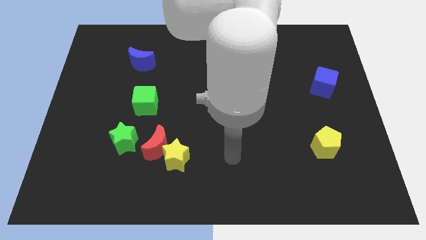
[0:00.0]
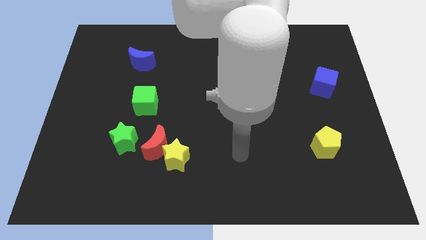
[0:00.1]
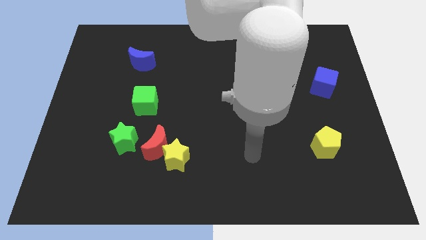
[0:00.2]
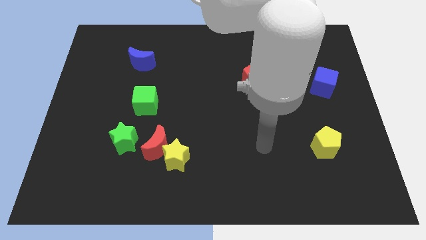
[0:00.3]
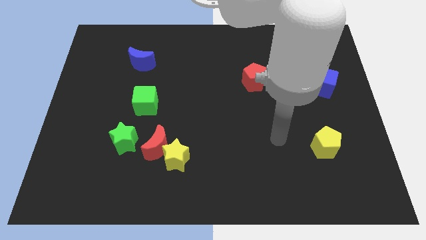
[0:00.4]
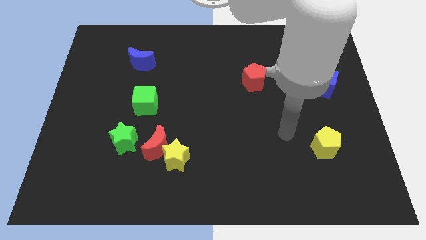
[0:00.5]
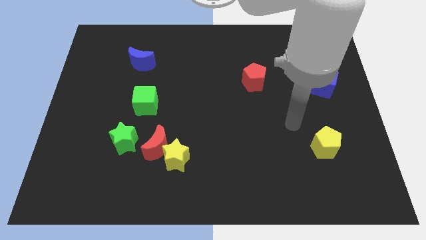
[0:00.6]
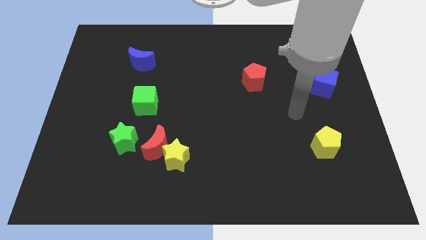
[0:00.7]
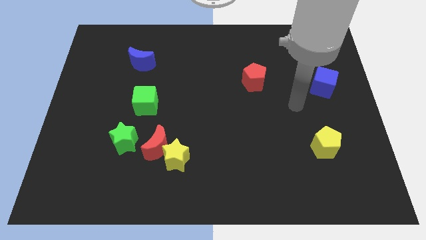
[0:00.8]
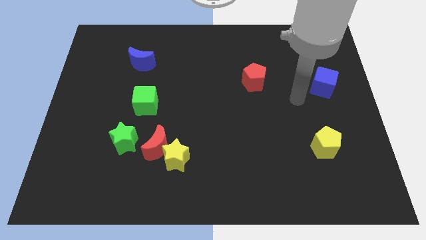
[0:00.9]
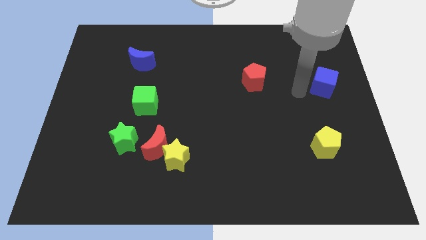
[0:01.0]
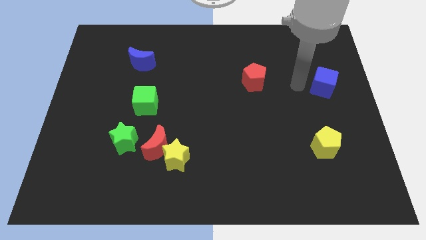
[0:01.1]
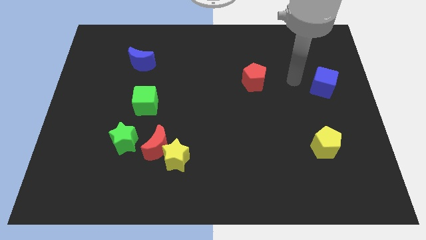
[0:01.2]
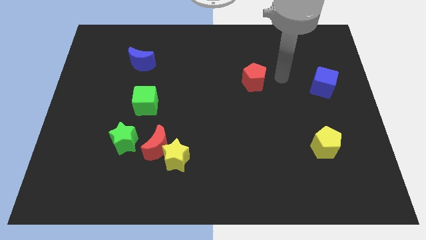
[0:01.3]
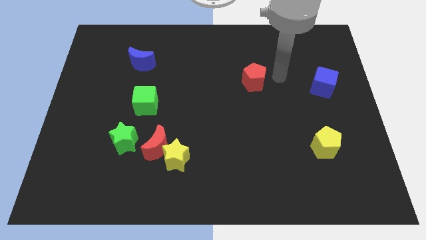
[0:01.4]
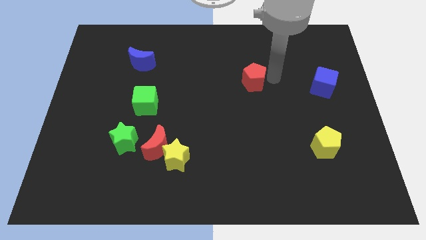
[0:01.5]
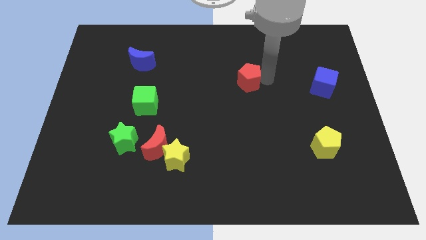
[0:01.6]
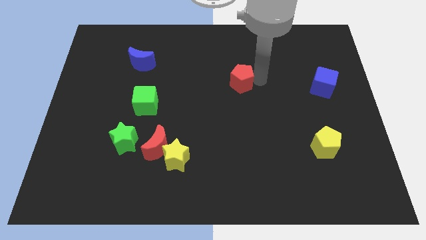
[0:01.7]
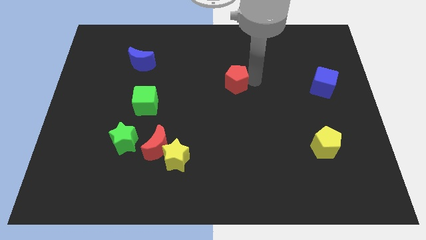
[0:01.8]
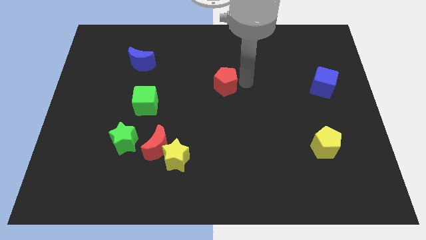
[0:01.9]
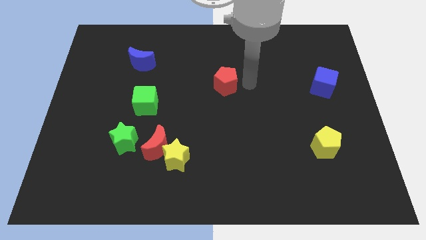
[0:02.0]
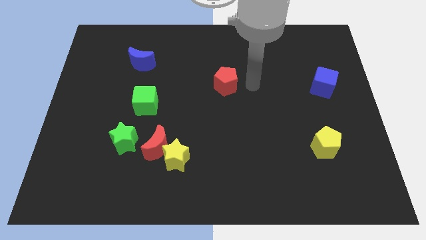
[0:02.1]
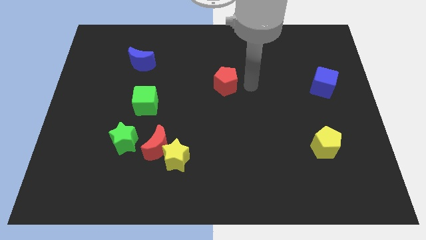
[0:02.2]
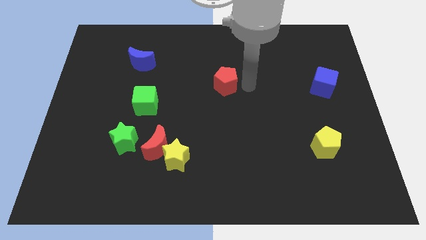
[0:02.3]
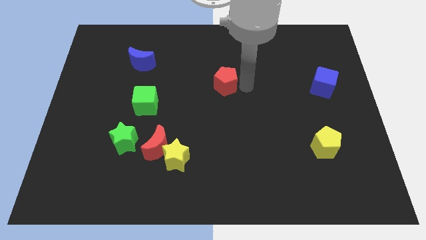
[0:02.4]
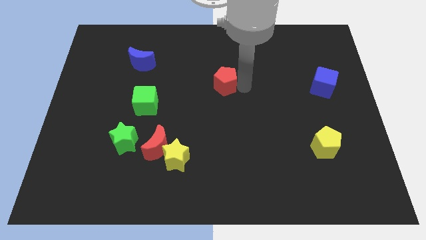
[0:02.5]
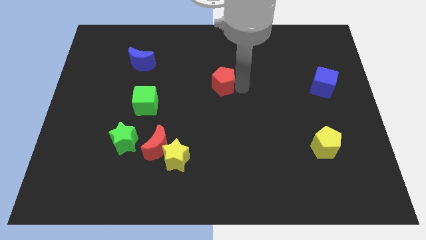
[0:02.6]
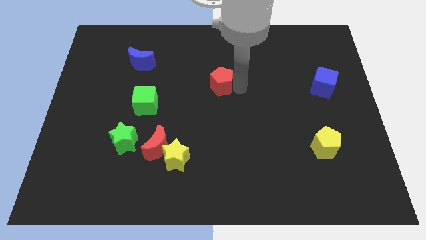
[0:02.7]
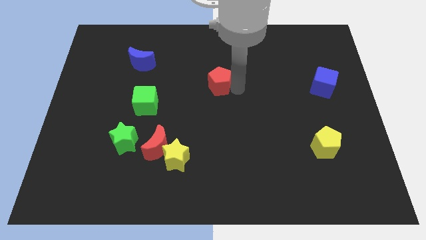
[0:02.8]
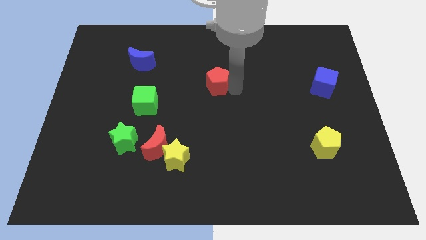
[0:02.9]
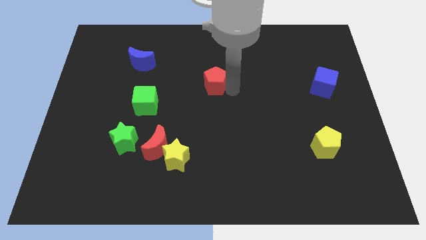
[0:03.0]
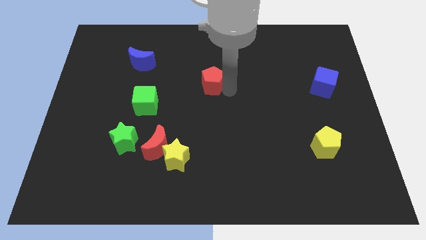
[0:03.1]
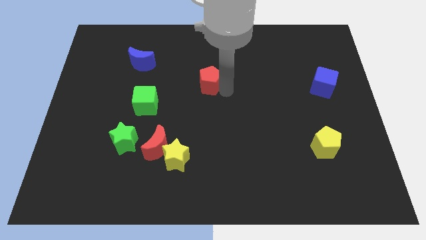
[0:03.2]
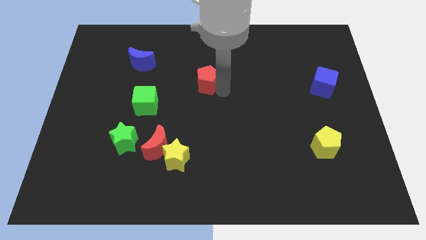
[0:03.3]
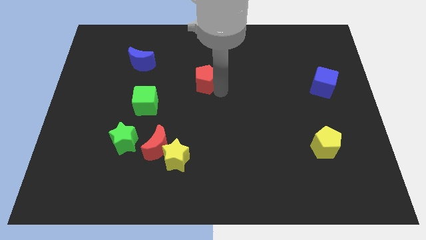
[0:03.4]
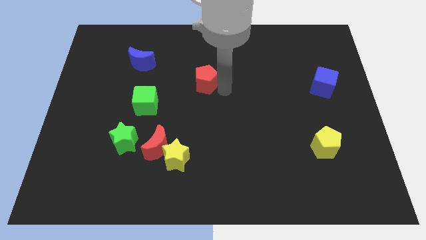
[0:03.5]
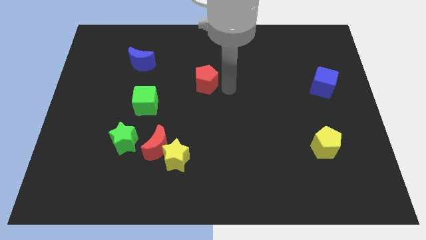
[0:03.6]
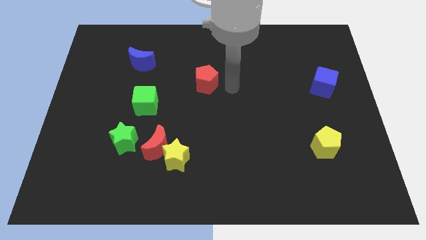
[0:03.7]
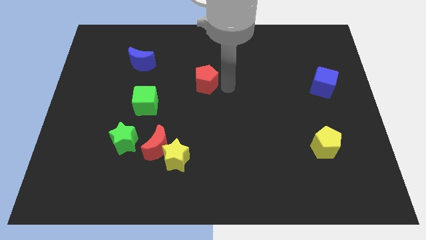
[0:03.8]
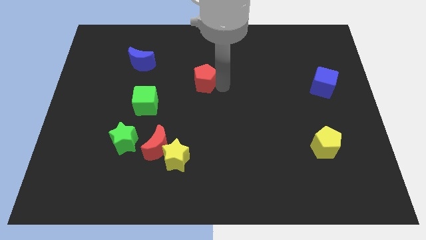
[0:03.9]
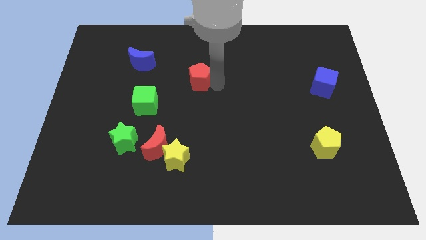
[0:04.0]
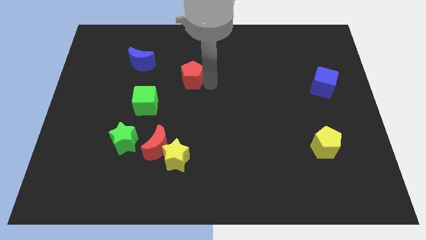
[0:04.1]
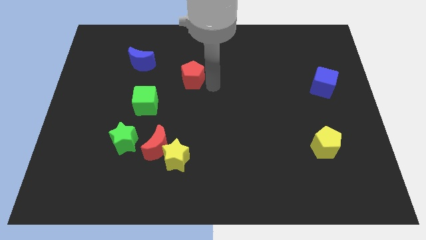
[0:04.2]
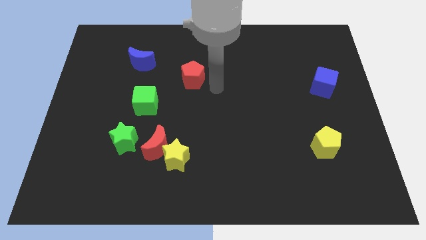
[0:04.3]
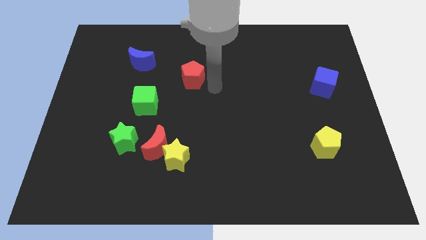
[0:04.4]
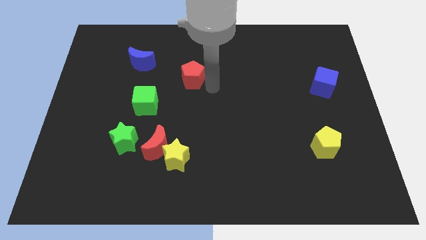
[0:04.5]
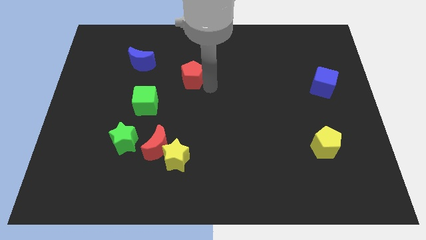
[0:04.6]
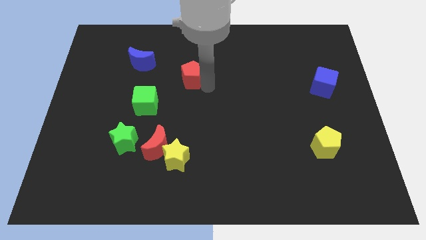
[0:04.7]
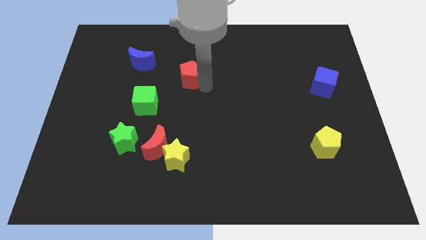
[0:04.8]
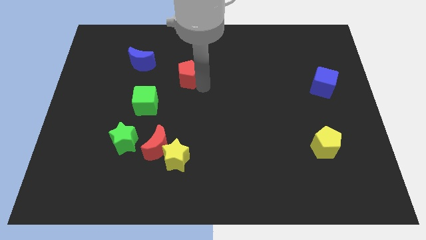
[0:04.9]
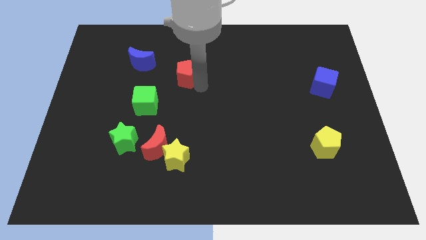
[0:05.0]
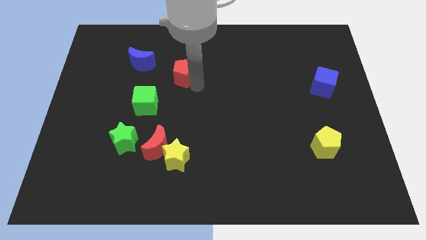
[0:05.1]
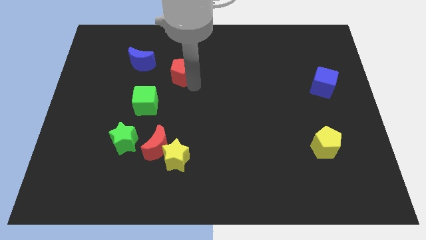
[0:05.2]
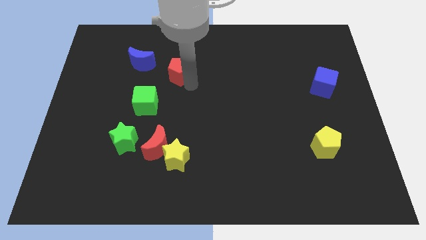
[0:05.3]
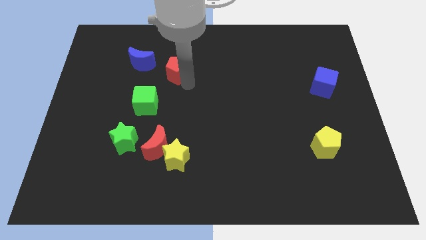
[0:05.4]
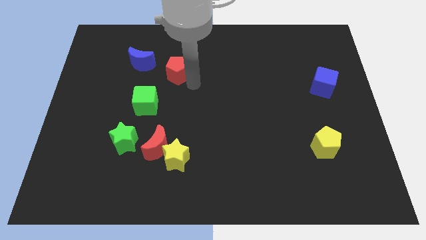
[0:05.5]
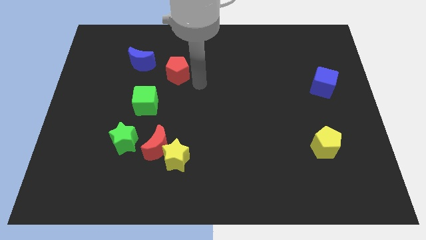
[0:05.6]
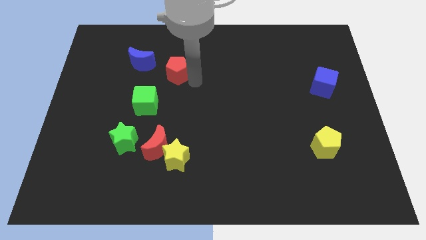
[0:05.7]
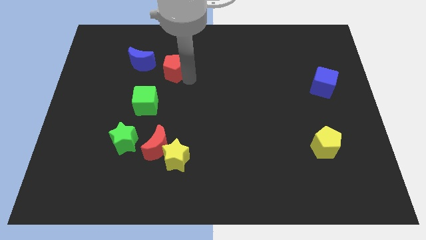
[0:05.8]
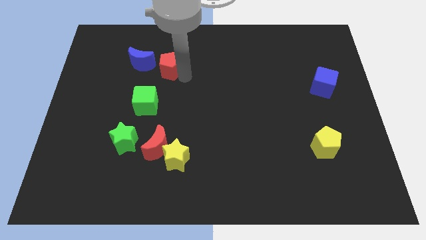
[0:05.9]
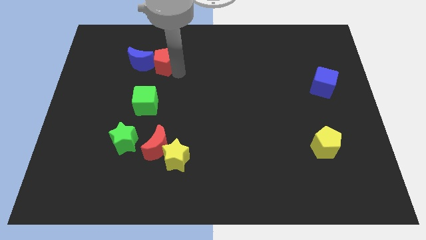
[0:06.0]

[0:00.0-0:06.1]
move the red pentagon towards the blue moon

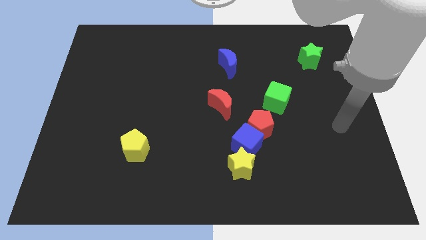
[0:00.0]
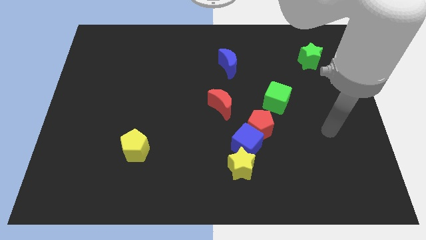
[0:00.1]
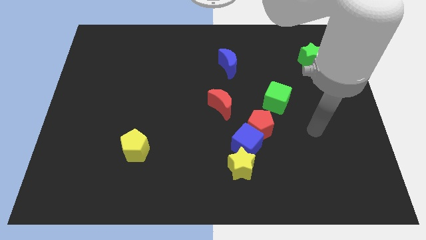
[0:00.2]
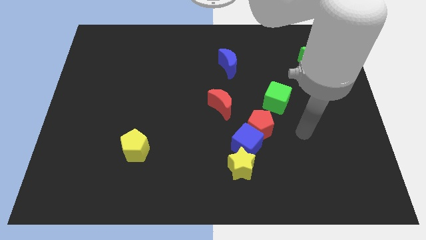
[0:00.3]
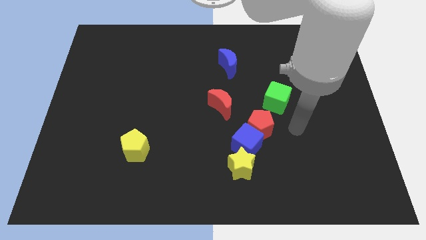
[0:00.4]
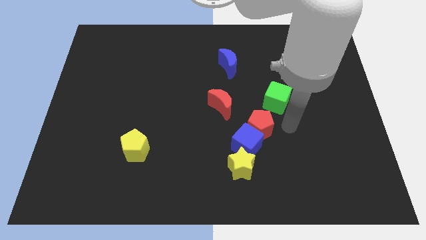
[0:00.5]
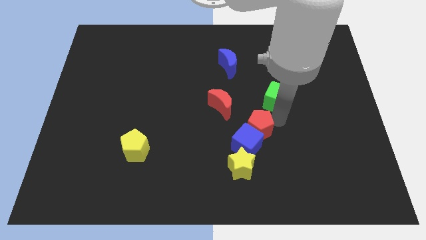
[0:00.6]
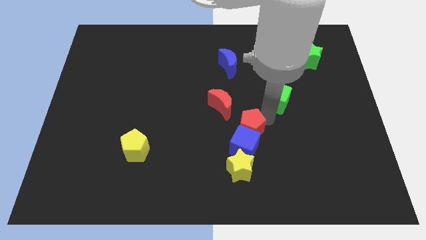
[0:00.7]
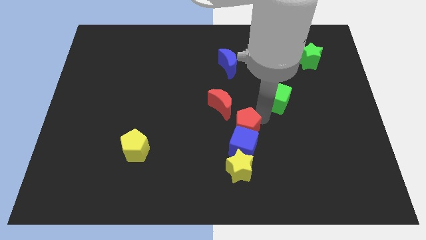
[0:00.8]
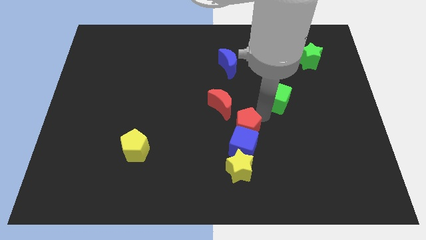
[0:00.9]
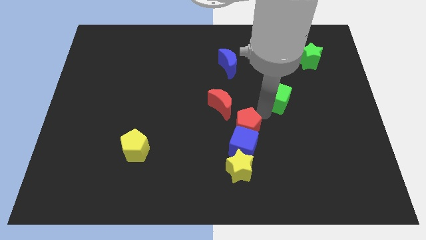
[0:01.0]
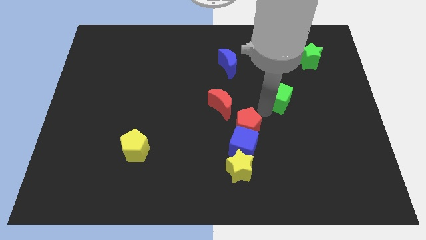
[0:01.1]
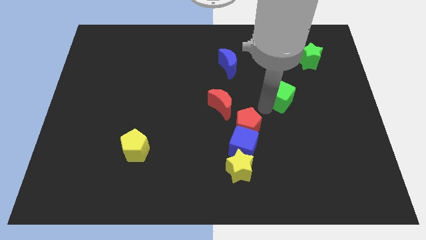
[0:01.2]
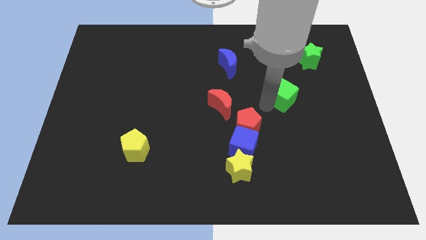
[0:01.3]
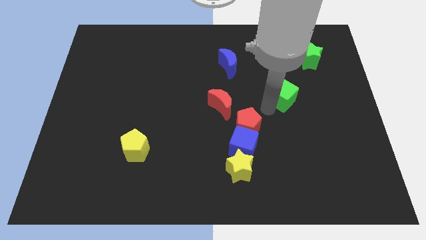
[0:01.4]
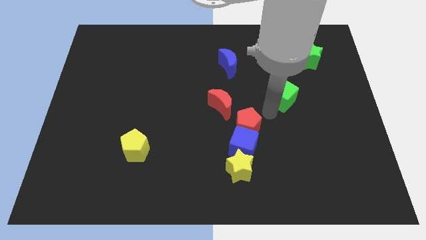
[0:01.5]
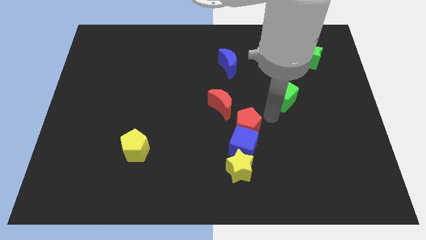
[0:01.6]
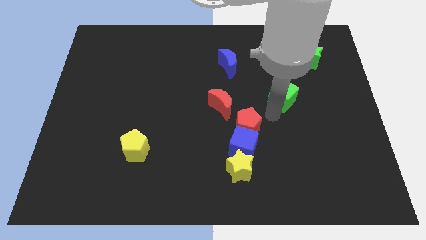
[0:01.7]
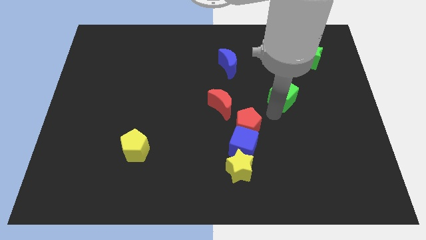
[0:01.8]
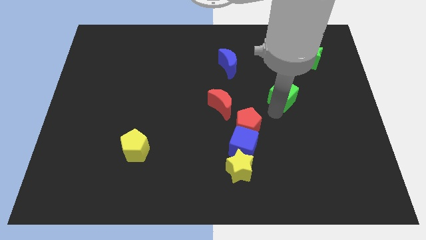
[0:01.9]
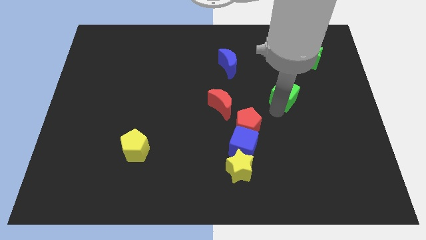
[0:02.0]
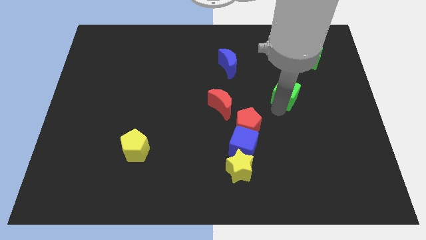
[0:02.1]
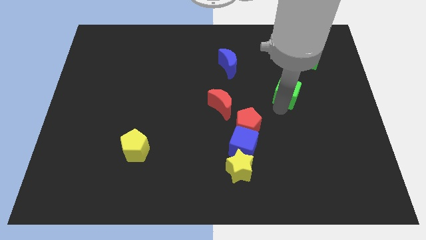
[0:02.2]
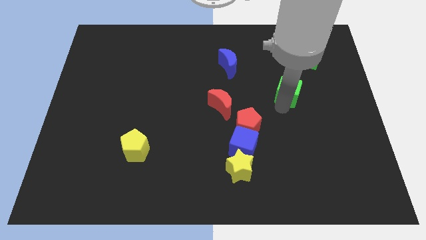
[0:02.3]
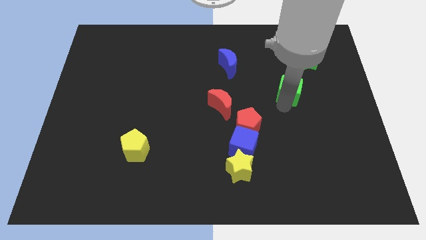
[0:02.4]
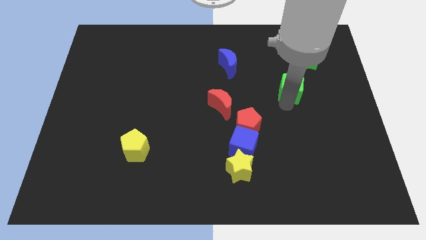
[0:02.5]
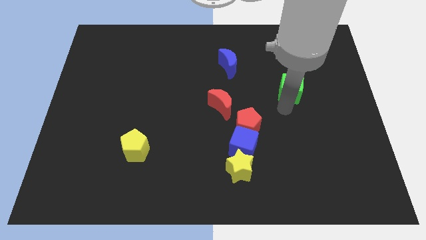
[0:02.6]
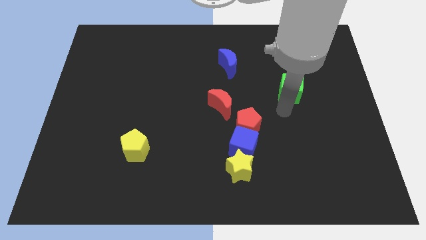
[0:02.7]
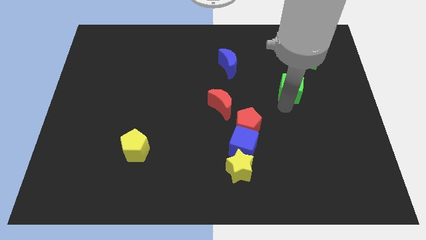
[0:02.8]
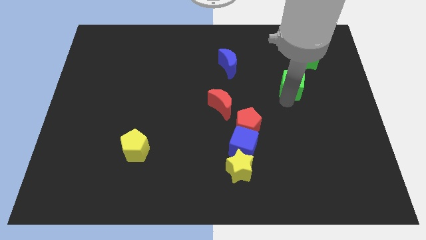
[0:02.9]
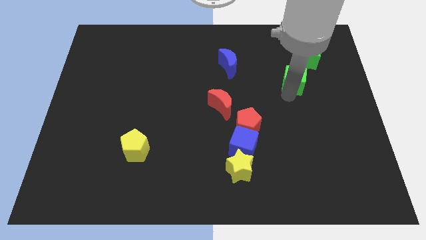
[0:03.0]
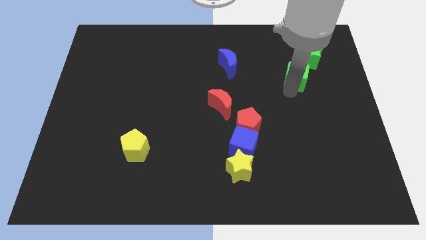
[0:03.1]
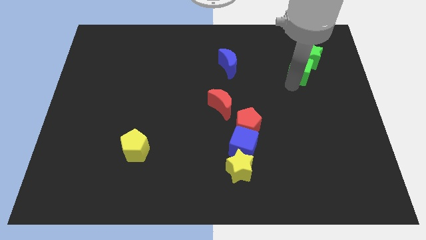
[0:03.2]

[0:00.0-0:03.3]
slide the green cube towards the green star
